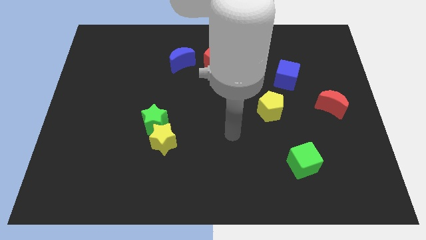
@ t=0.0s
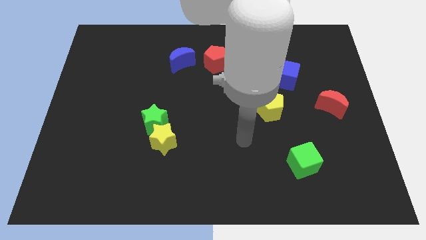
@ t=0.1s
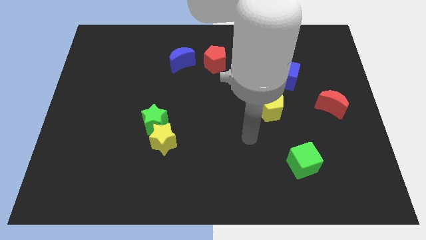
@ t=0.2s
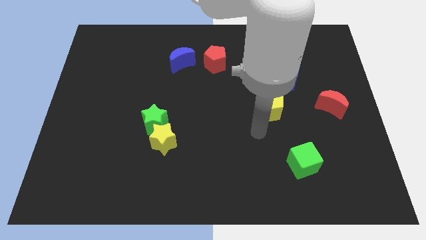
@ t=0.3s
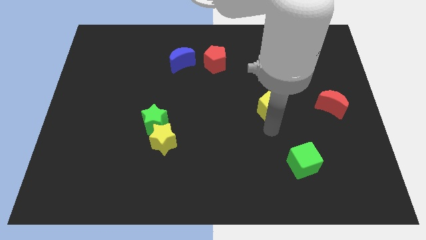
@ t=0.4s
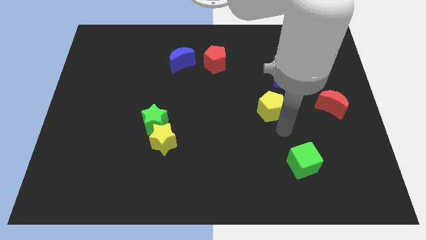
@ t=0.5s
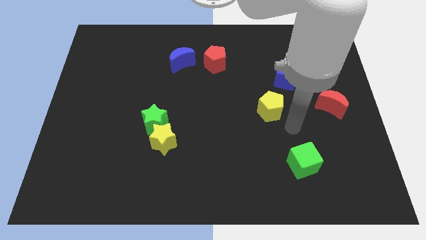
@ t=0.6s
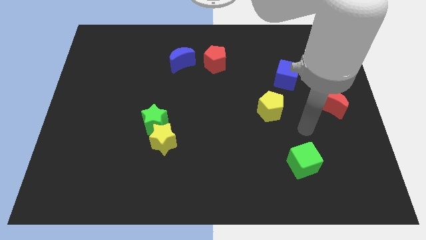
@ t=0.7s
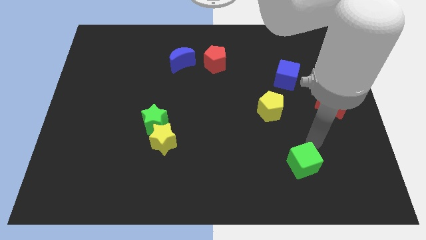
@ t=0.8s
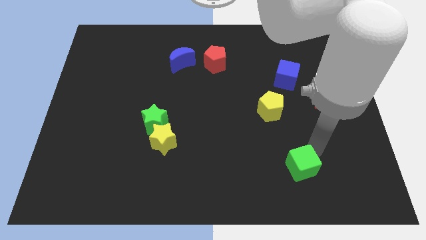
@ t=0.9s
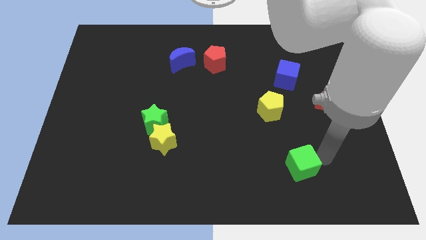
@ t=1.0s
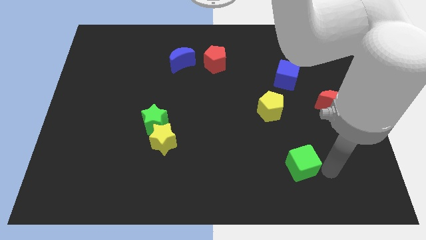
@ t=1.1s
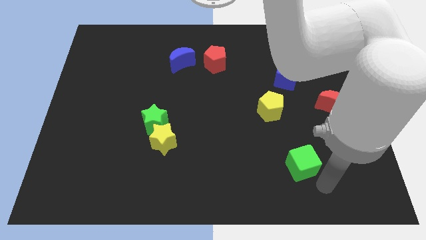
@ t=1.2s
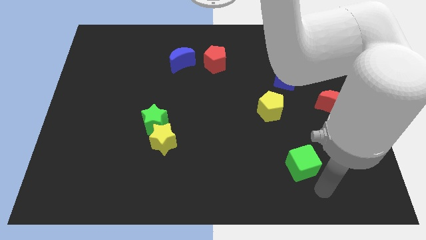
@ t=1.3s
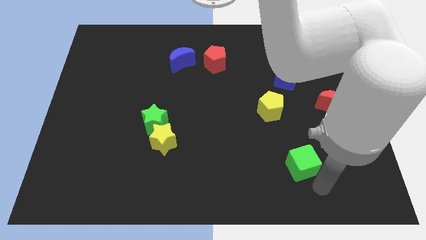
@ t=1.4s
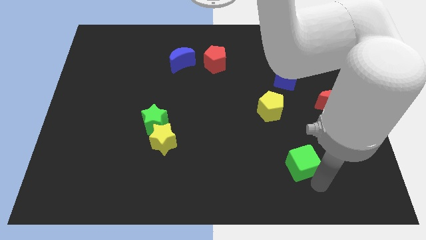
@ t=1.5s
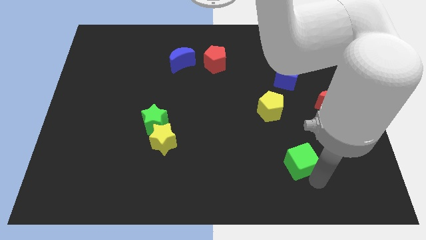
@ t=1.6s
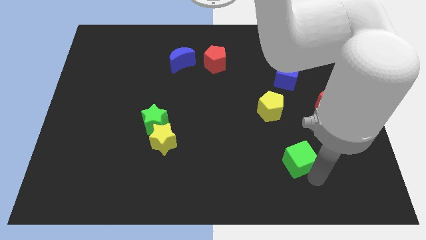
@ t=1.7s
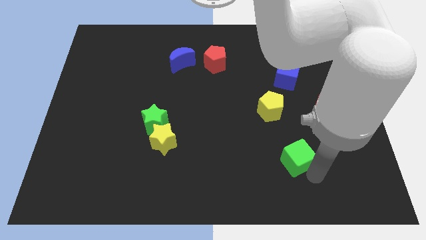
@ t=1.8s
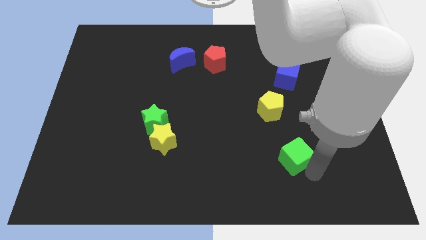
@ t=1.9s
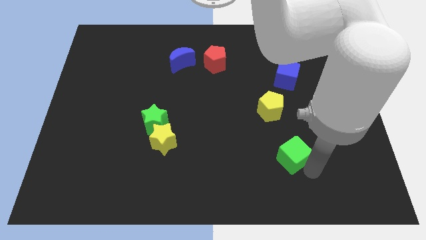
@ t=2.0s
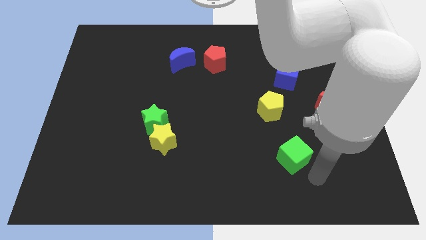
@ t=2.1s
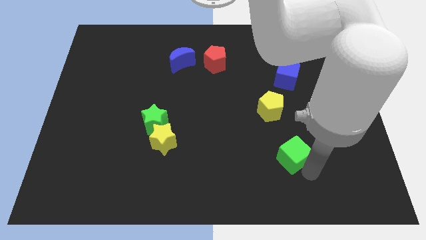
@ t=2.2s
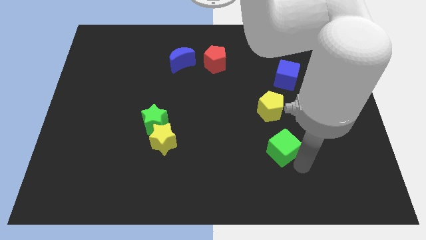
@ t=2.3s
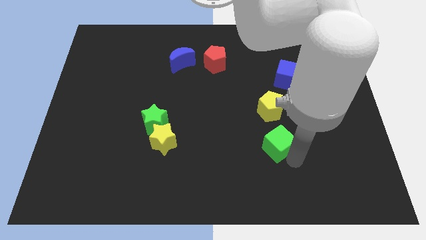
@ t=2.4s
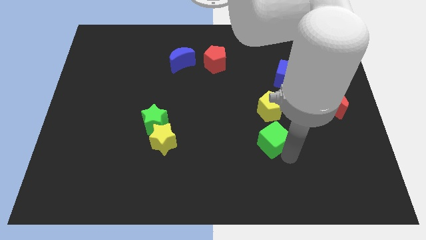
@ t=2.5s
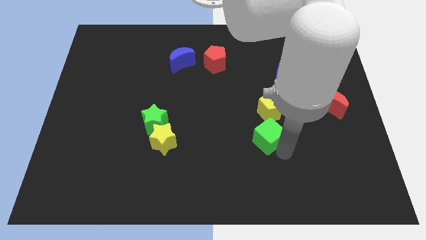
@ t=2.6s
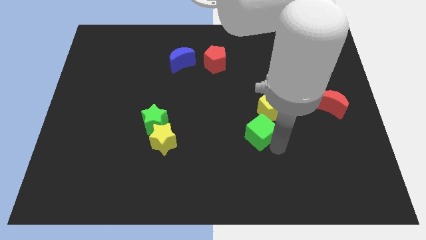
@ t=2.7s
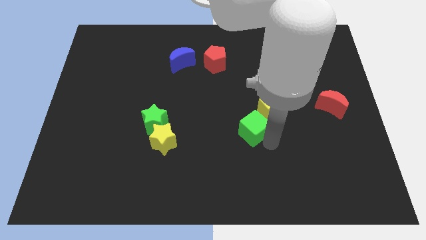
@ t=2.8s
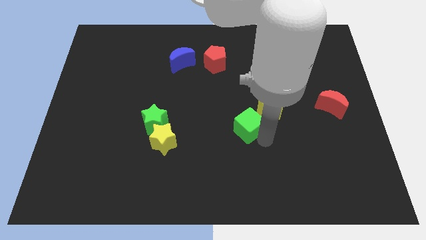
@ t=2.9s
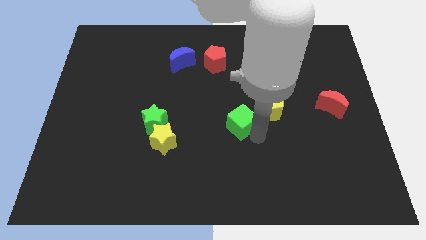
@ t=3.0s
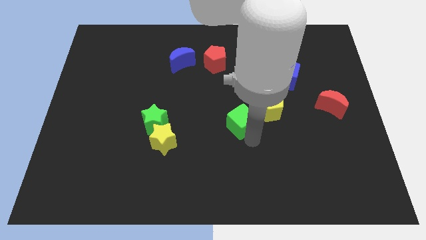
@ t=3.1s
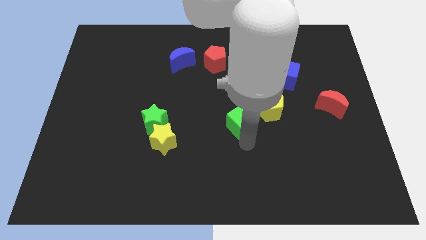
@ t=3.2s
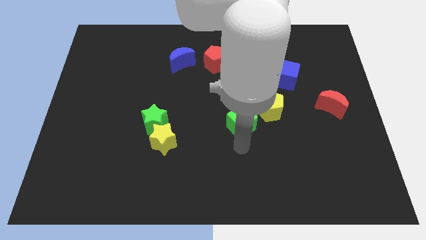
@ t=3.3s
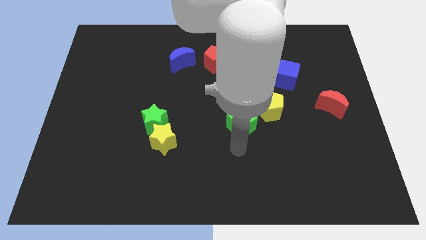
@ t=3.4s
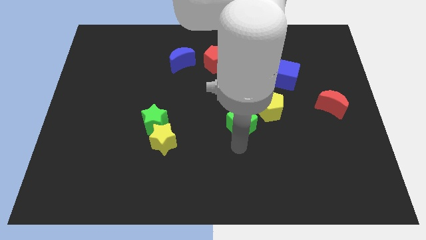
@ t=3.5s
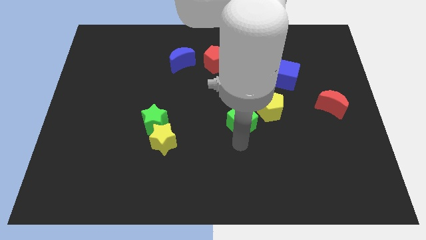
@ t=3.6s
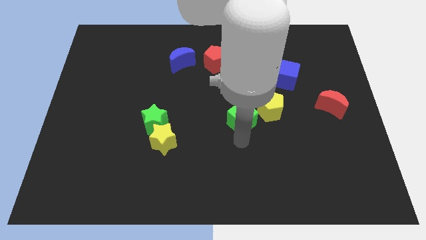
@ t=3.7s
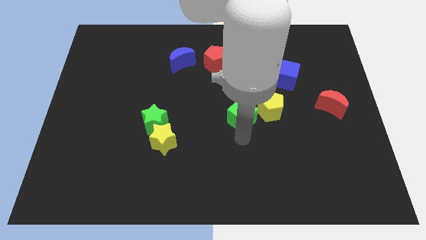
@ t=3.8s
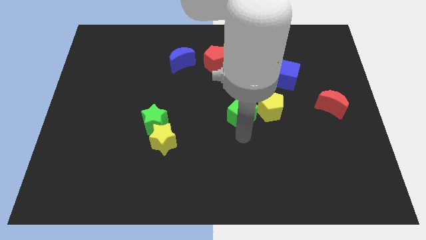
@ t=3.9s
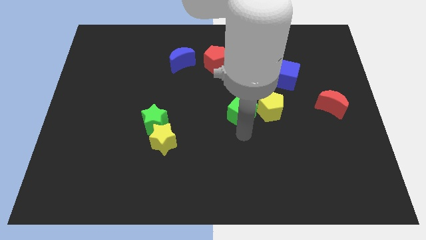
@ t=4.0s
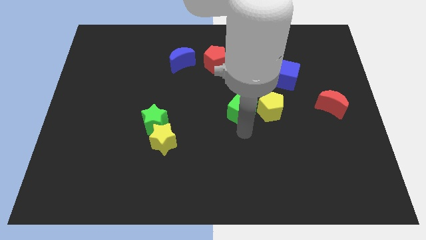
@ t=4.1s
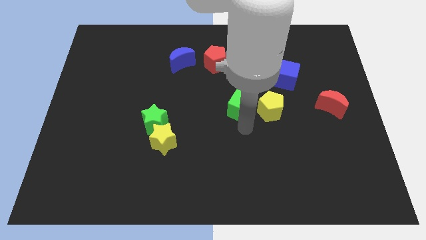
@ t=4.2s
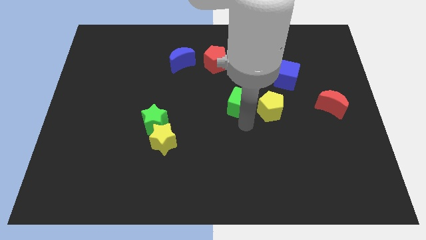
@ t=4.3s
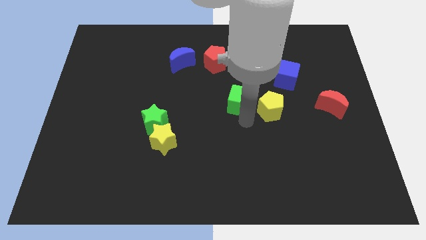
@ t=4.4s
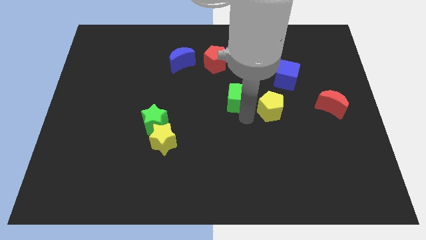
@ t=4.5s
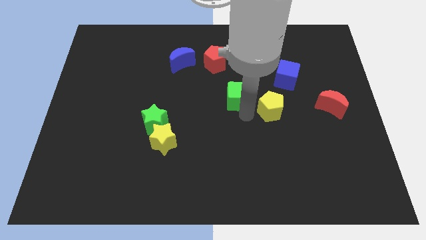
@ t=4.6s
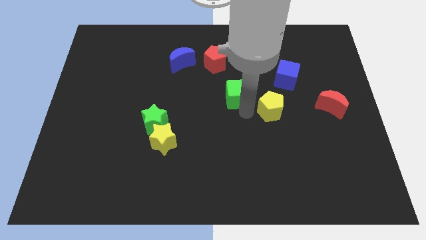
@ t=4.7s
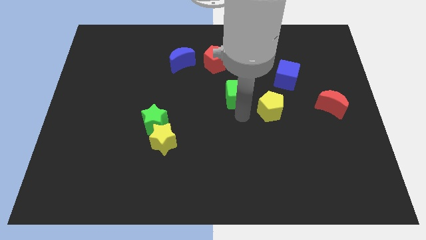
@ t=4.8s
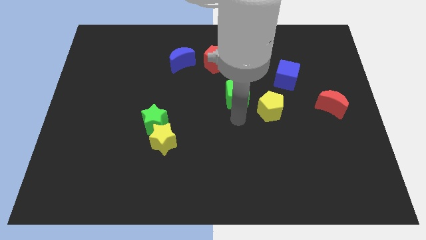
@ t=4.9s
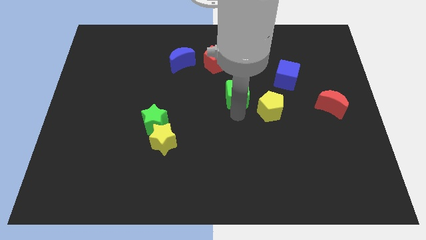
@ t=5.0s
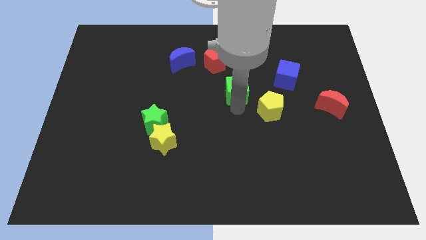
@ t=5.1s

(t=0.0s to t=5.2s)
put the green cube diagonally down and to the right of the red pentagon

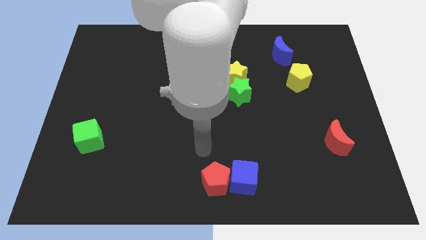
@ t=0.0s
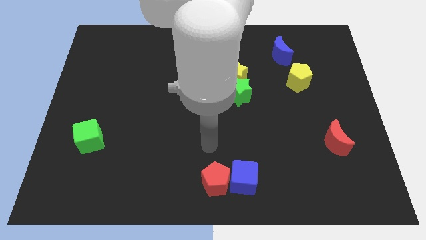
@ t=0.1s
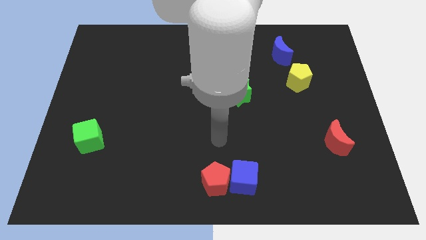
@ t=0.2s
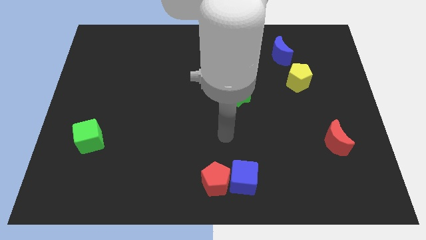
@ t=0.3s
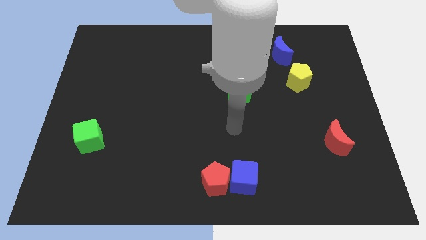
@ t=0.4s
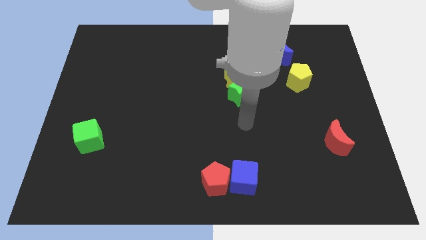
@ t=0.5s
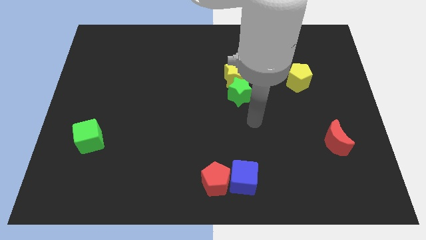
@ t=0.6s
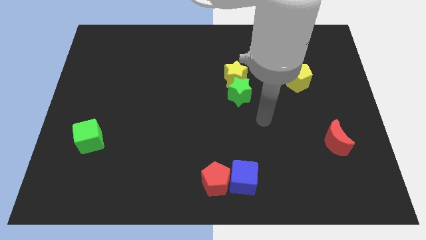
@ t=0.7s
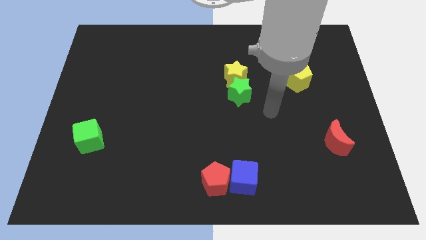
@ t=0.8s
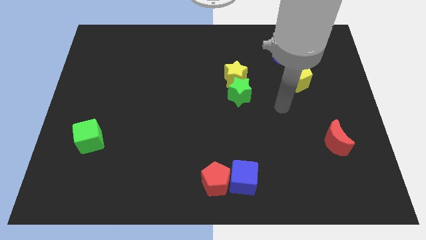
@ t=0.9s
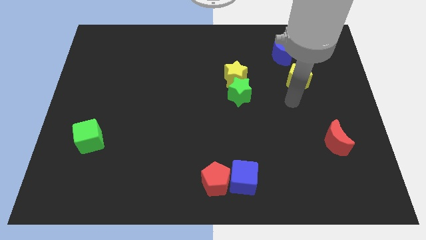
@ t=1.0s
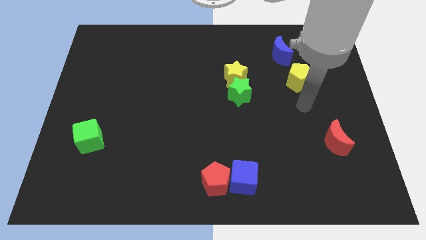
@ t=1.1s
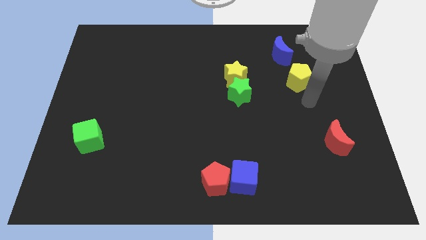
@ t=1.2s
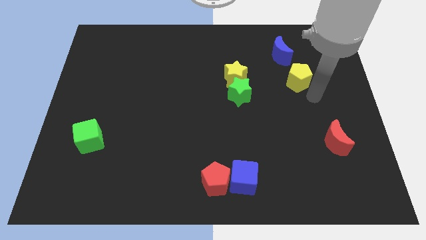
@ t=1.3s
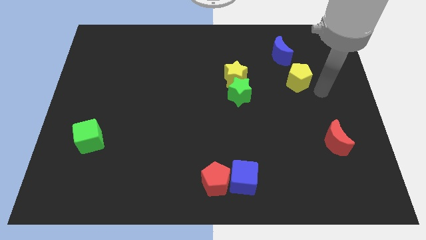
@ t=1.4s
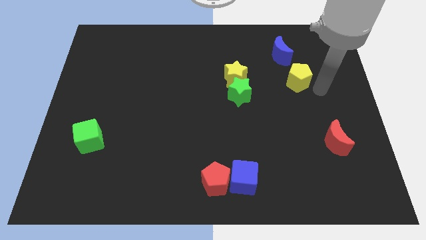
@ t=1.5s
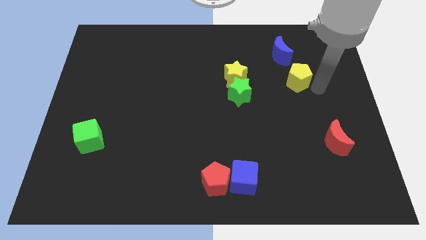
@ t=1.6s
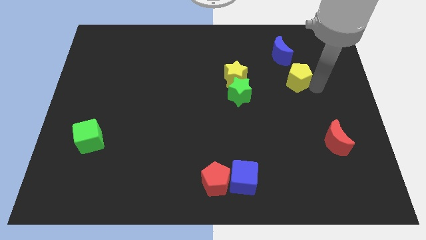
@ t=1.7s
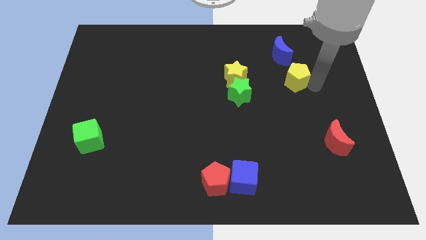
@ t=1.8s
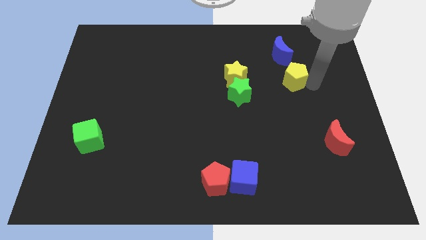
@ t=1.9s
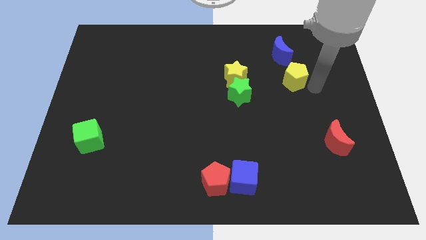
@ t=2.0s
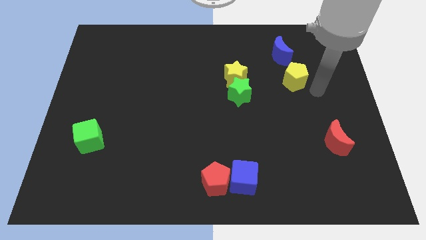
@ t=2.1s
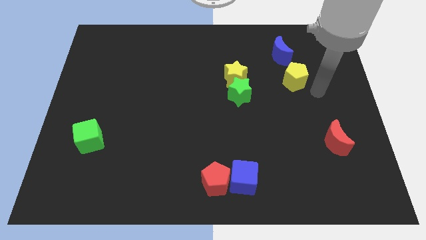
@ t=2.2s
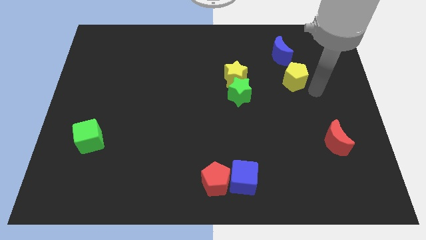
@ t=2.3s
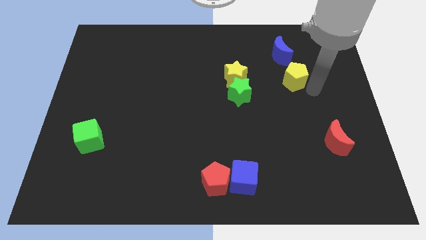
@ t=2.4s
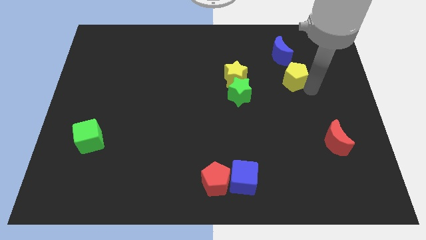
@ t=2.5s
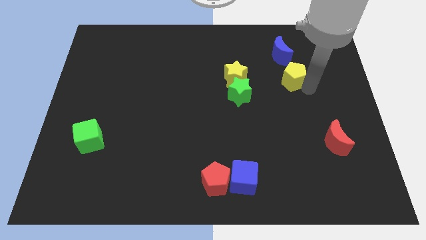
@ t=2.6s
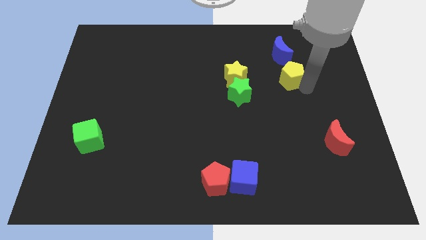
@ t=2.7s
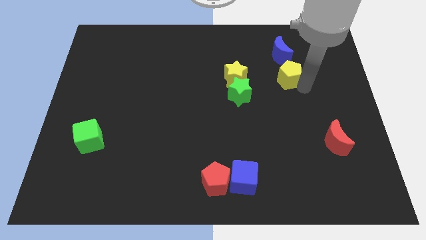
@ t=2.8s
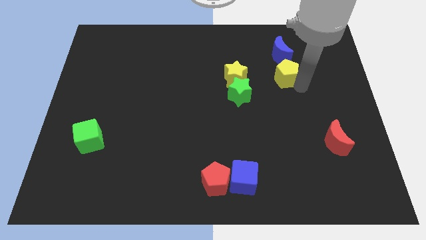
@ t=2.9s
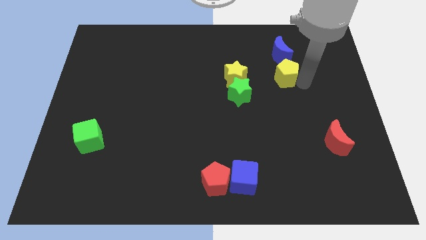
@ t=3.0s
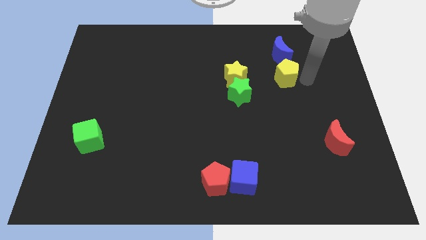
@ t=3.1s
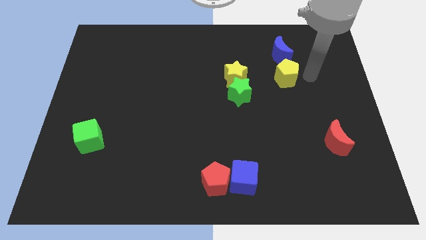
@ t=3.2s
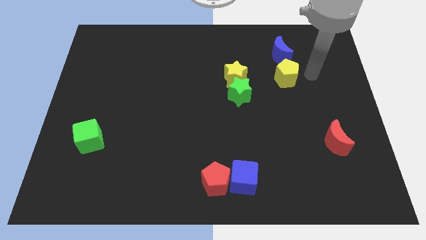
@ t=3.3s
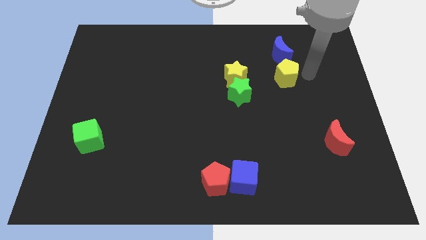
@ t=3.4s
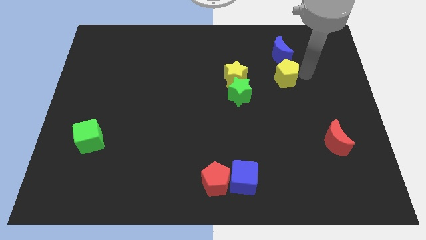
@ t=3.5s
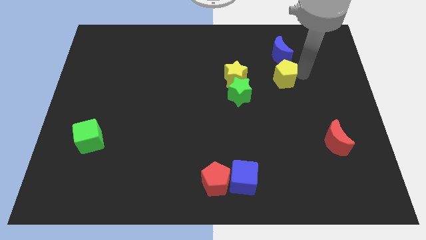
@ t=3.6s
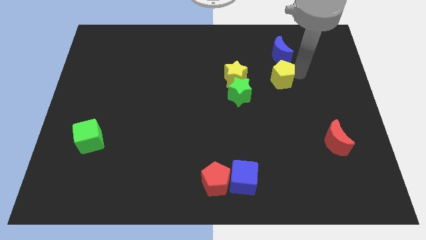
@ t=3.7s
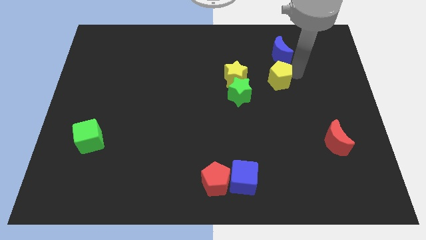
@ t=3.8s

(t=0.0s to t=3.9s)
push the yellow pentagon to the top right side of the green star
